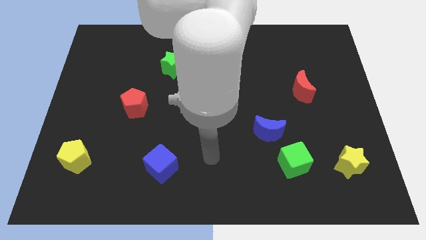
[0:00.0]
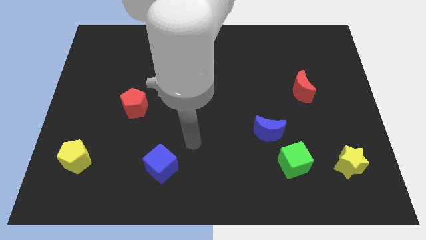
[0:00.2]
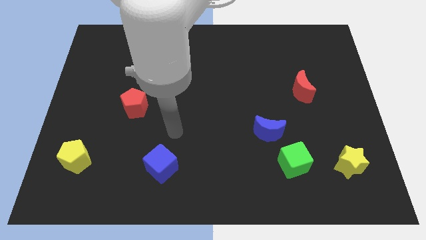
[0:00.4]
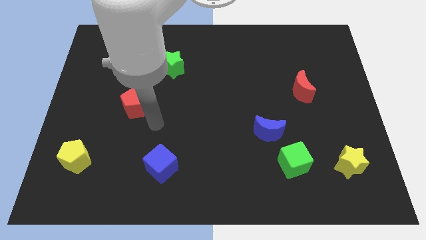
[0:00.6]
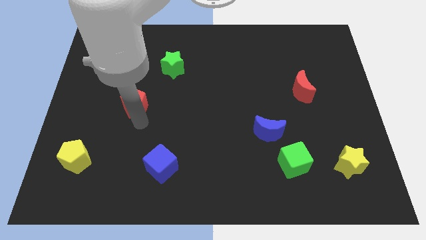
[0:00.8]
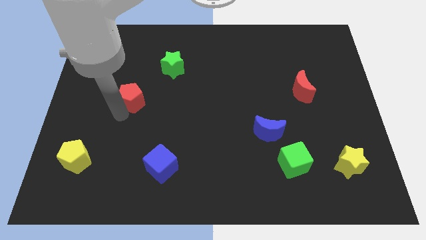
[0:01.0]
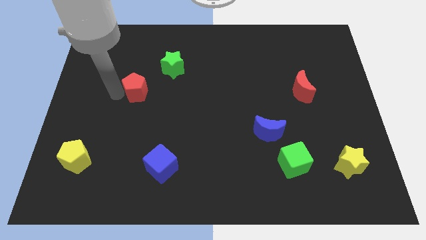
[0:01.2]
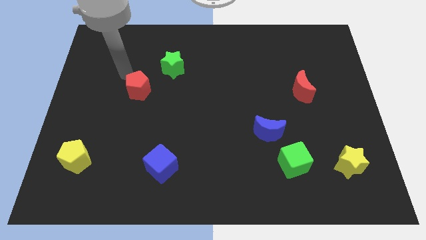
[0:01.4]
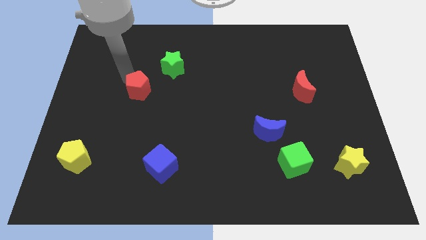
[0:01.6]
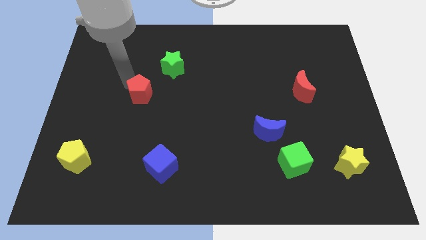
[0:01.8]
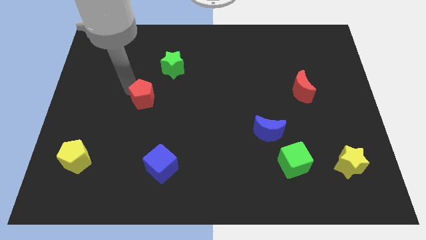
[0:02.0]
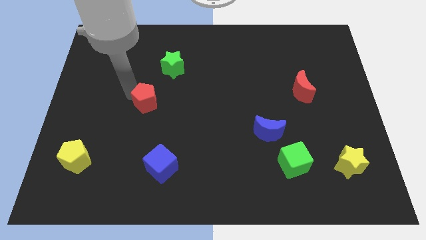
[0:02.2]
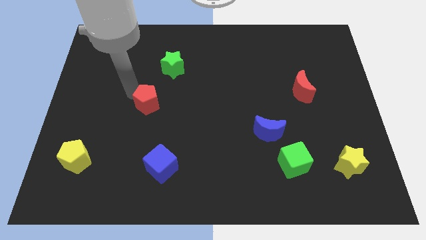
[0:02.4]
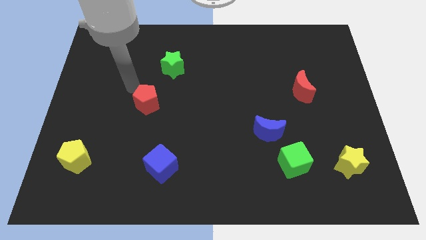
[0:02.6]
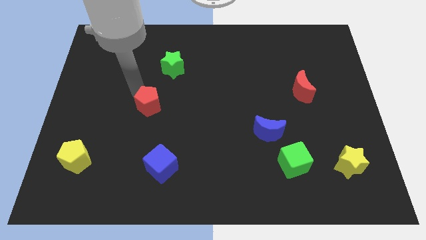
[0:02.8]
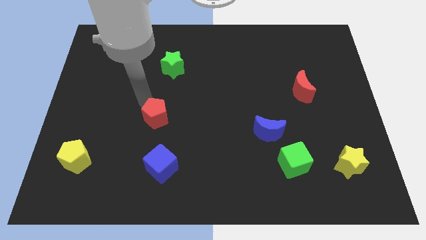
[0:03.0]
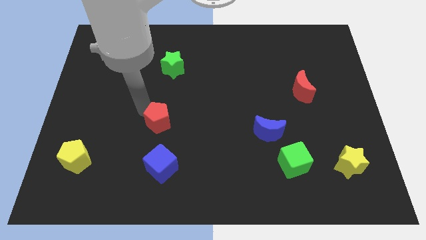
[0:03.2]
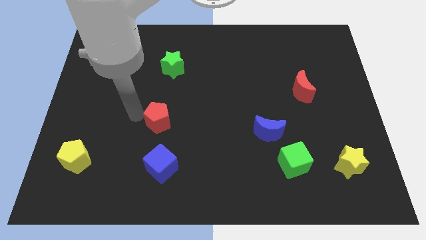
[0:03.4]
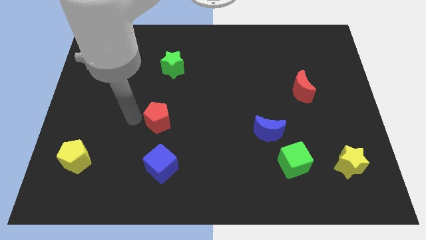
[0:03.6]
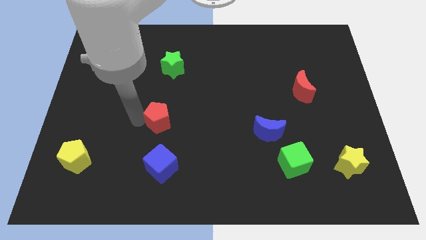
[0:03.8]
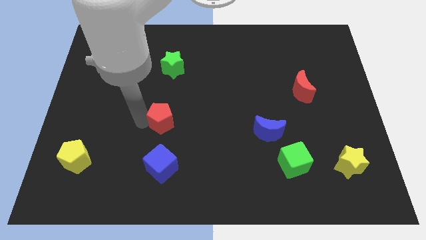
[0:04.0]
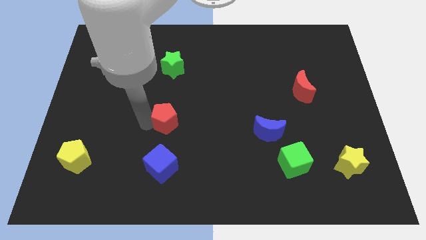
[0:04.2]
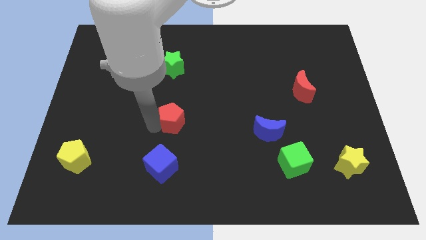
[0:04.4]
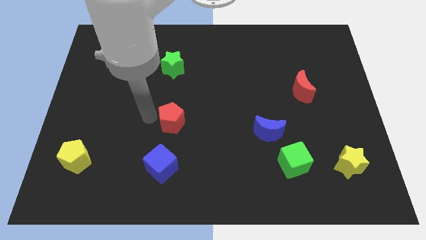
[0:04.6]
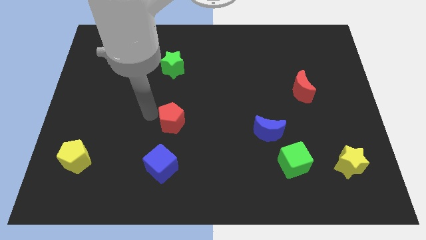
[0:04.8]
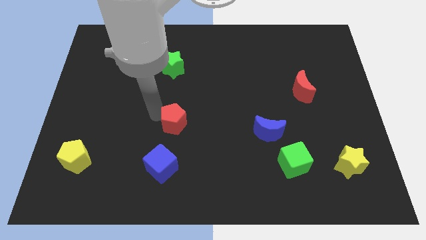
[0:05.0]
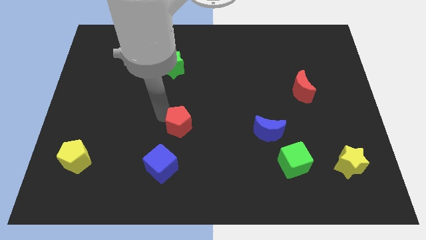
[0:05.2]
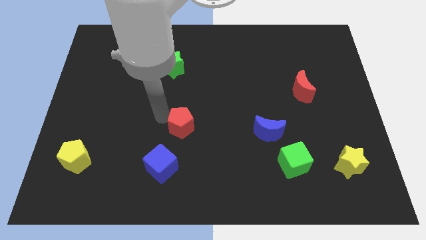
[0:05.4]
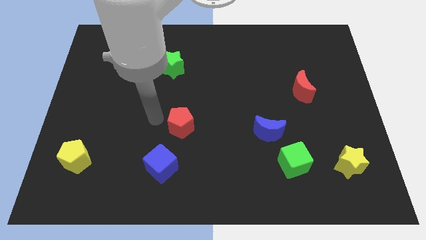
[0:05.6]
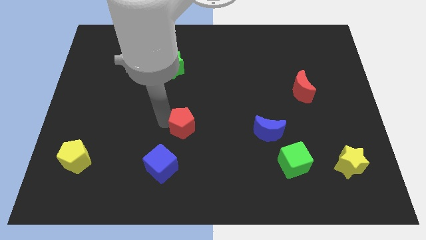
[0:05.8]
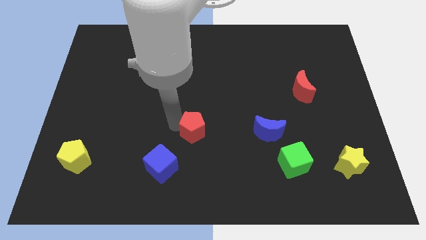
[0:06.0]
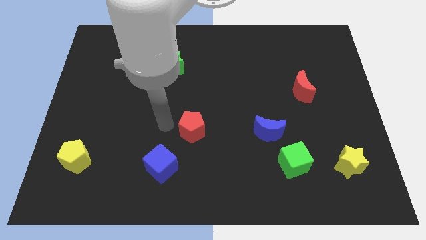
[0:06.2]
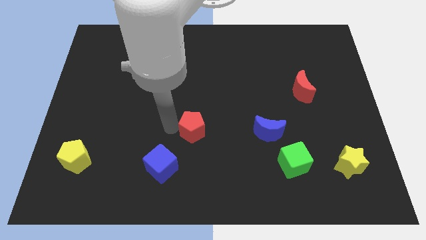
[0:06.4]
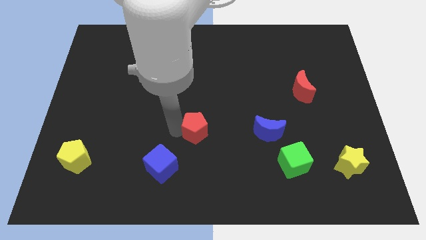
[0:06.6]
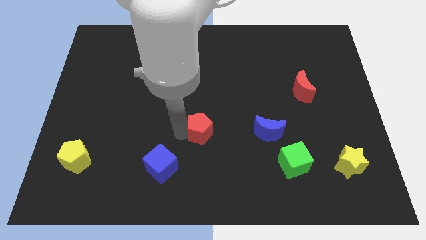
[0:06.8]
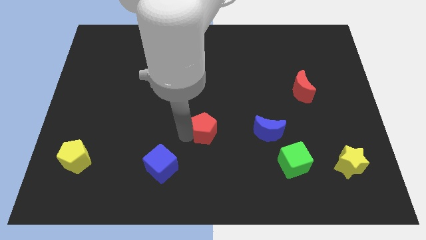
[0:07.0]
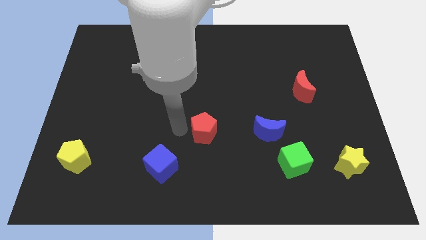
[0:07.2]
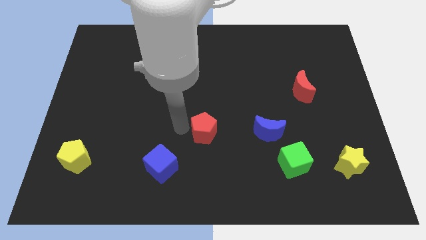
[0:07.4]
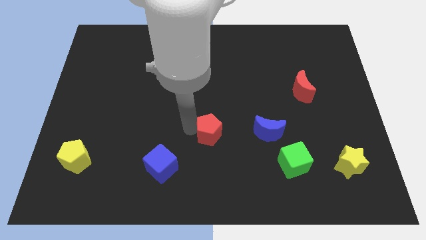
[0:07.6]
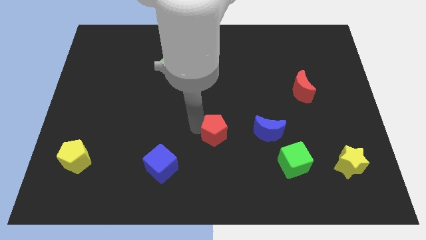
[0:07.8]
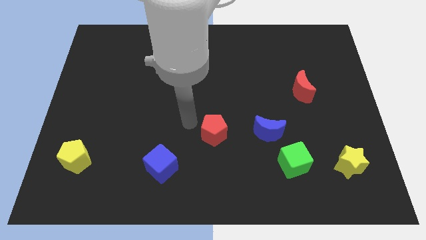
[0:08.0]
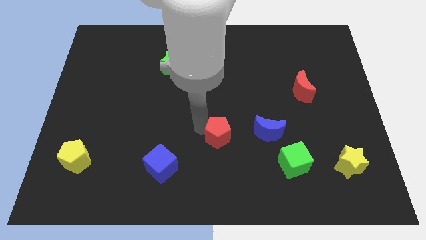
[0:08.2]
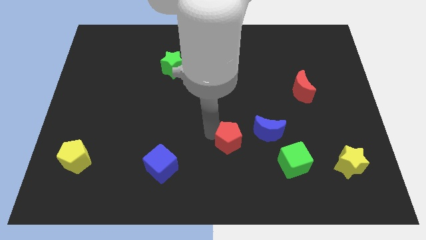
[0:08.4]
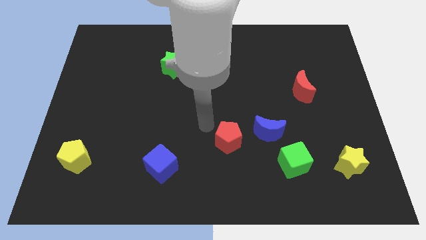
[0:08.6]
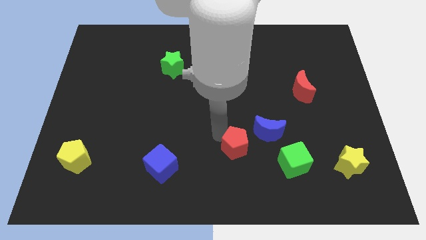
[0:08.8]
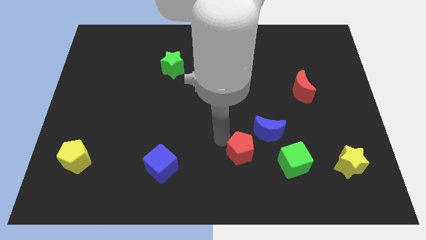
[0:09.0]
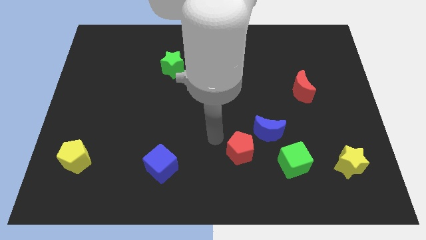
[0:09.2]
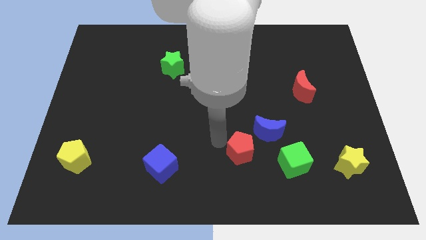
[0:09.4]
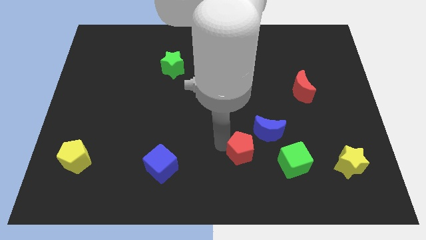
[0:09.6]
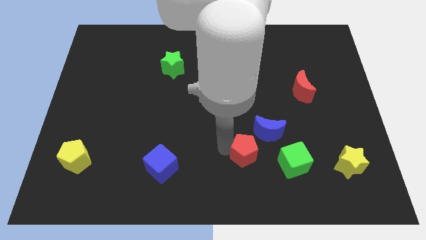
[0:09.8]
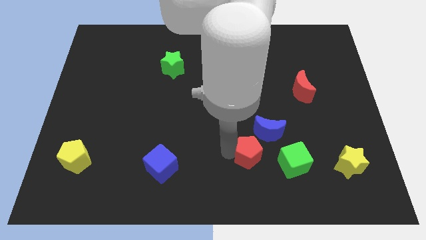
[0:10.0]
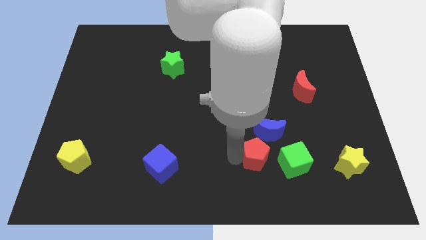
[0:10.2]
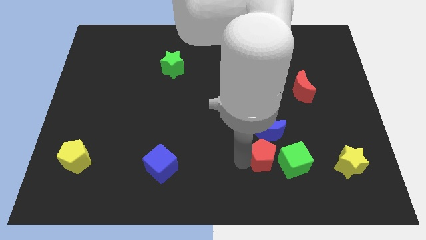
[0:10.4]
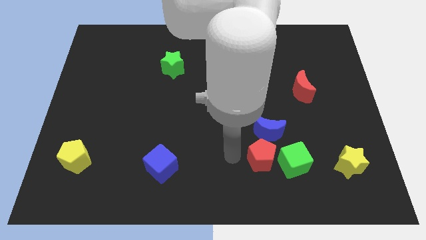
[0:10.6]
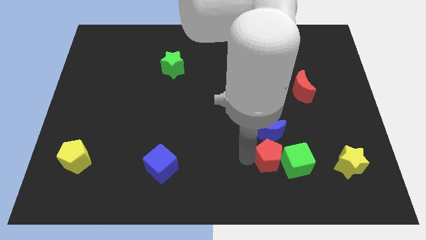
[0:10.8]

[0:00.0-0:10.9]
slide the red pentagon to the green cube

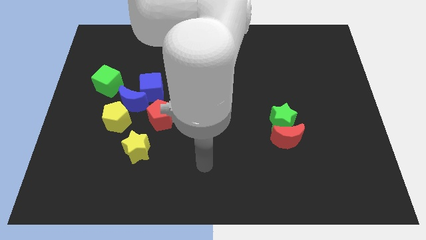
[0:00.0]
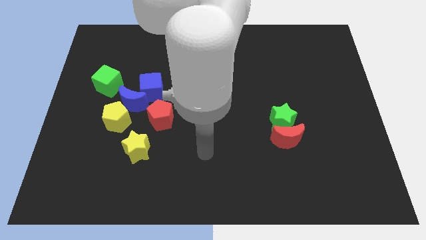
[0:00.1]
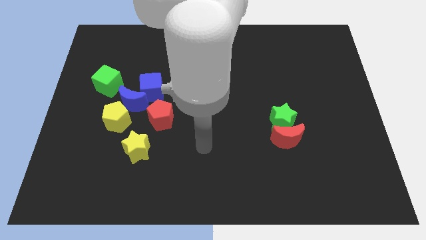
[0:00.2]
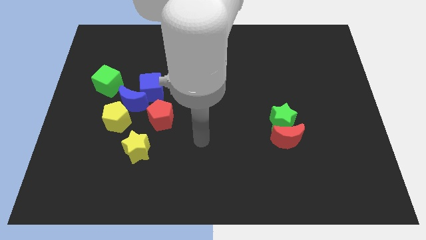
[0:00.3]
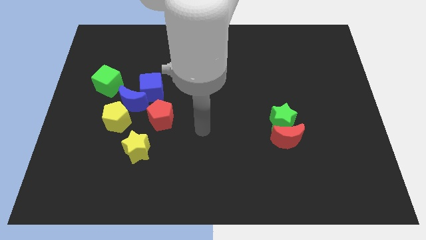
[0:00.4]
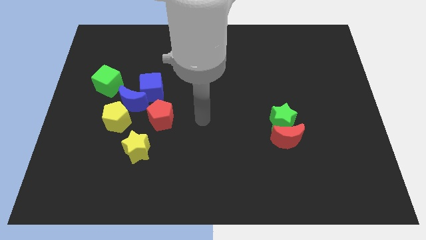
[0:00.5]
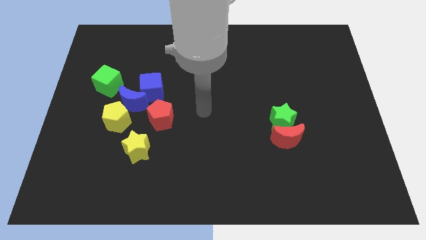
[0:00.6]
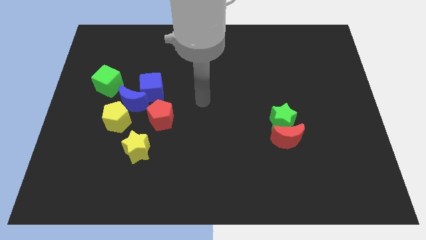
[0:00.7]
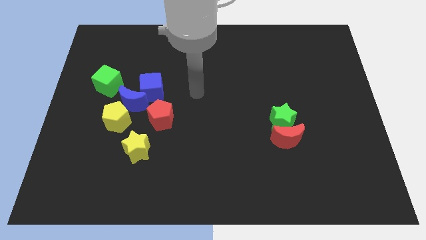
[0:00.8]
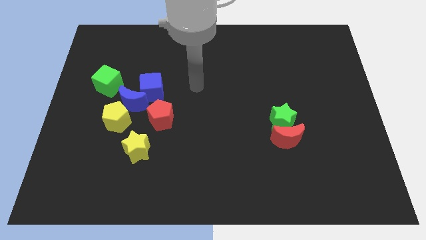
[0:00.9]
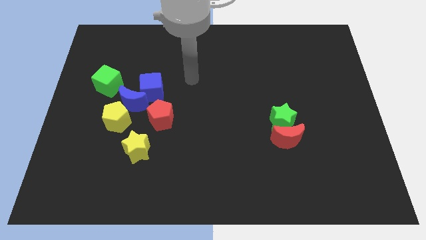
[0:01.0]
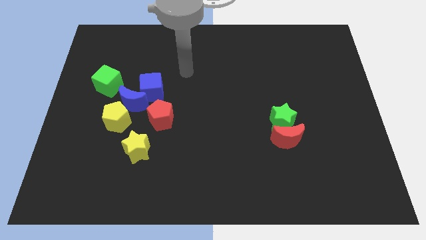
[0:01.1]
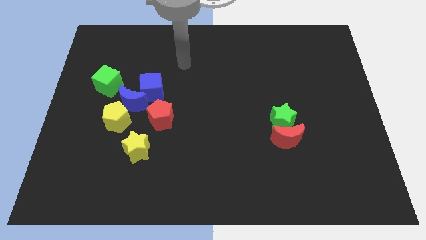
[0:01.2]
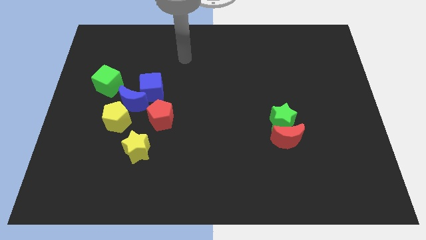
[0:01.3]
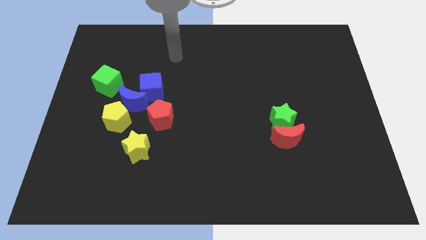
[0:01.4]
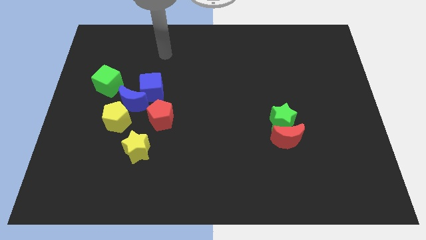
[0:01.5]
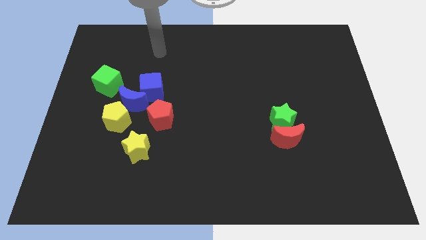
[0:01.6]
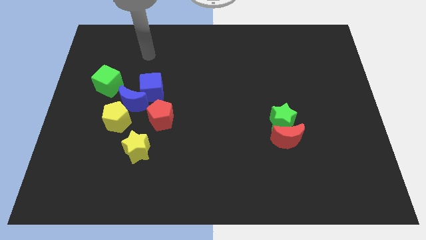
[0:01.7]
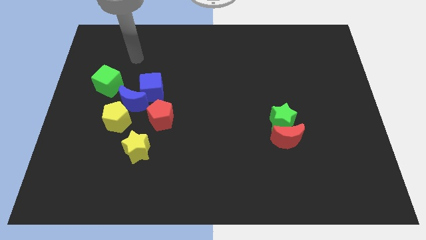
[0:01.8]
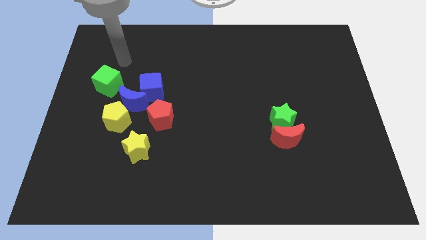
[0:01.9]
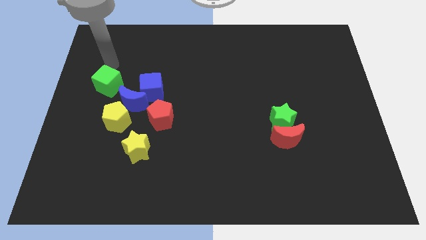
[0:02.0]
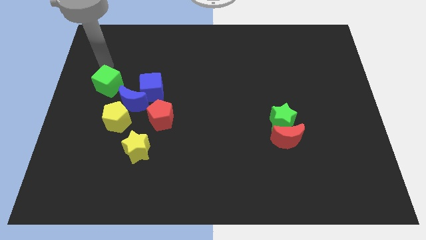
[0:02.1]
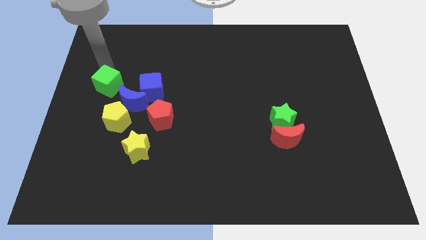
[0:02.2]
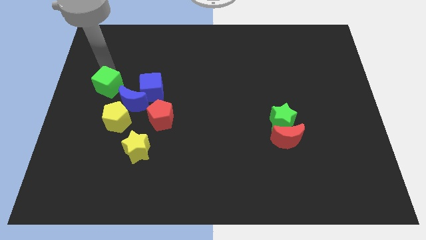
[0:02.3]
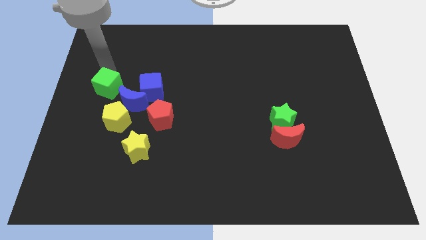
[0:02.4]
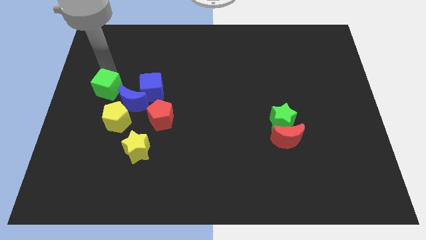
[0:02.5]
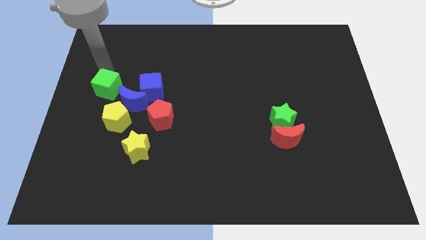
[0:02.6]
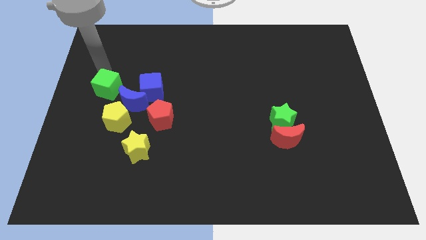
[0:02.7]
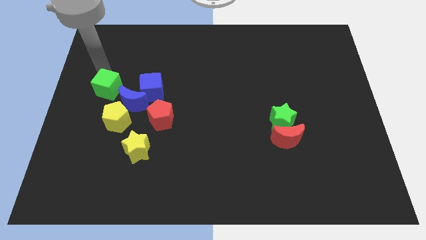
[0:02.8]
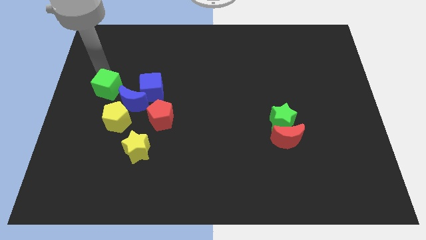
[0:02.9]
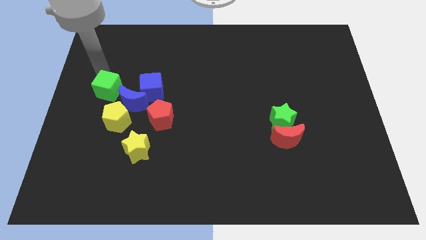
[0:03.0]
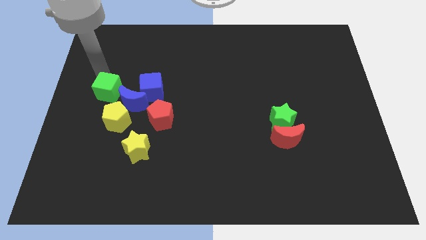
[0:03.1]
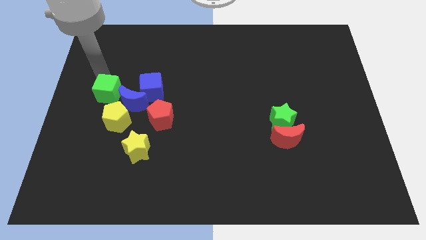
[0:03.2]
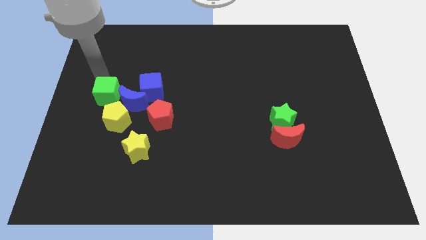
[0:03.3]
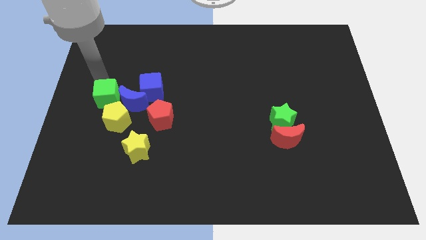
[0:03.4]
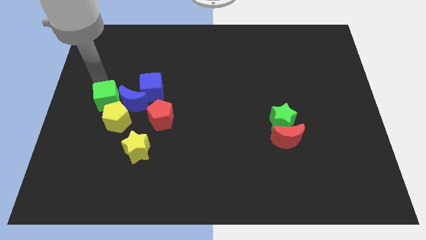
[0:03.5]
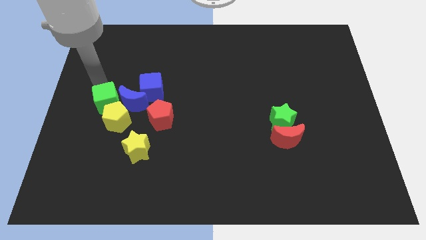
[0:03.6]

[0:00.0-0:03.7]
push the green cube towards the yellow pentagon
